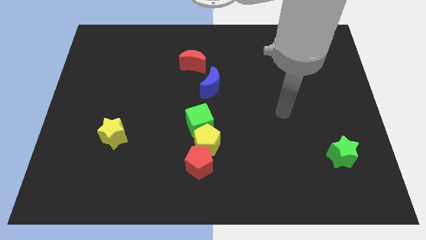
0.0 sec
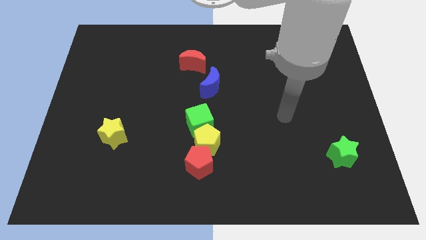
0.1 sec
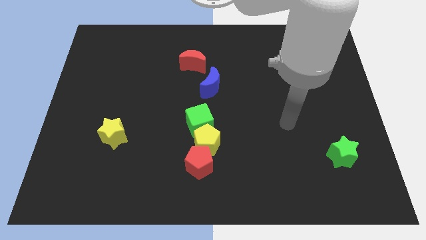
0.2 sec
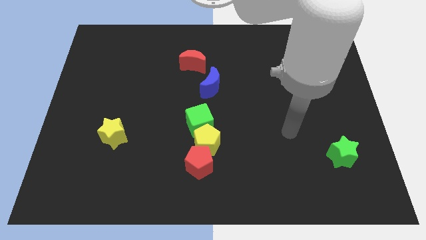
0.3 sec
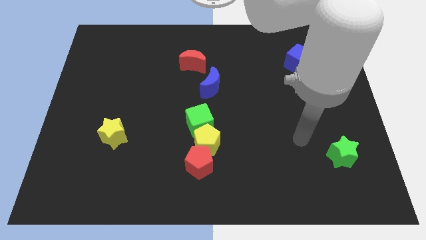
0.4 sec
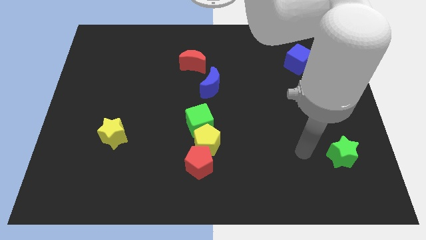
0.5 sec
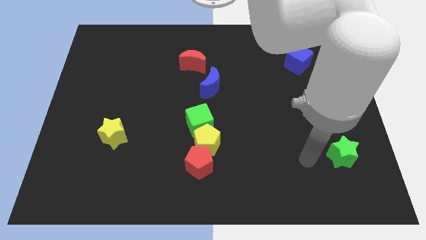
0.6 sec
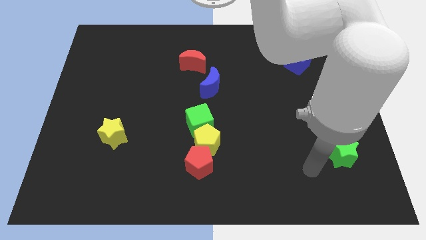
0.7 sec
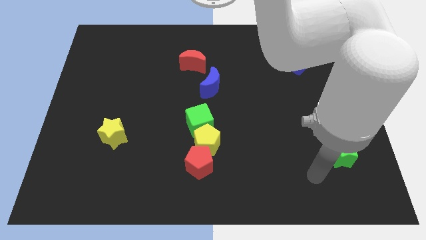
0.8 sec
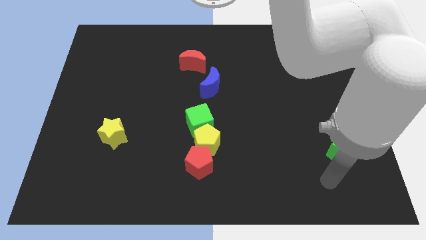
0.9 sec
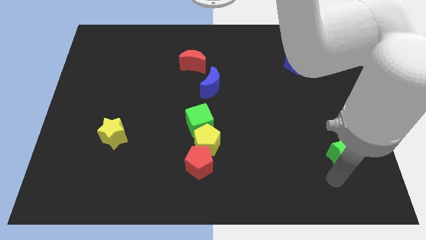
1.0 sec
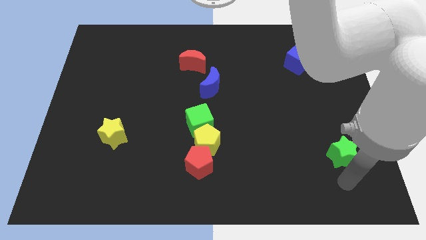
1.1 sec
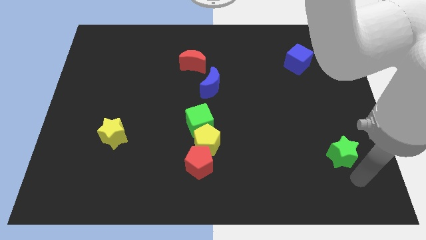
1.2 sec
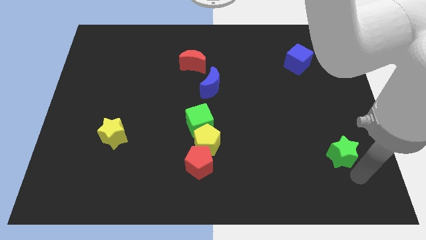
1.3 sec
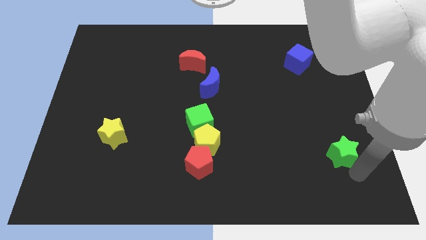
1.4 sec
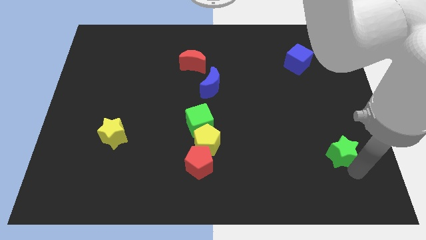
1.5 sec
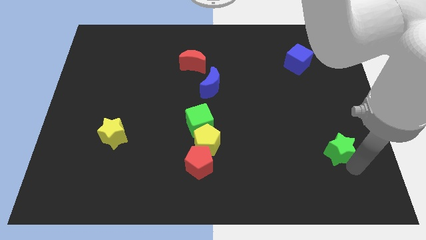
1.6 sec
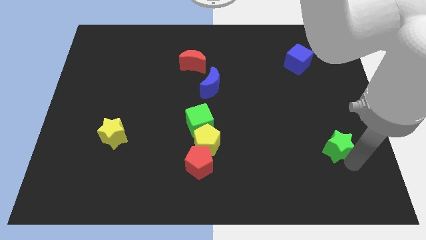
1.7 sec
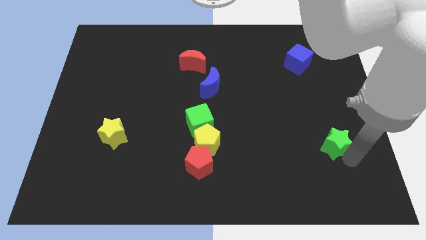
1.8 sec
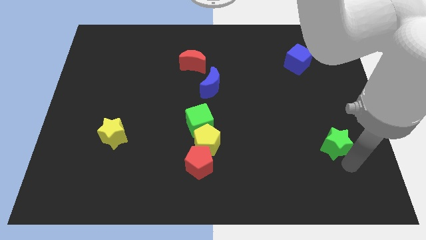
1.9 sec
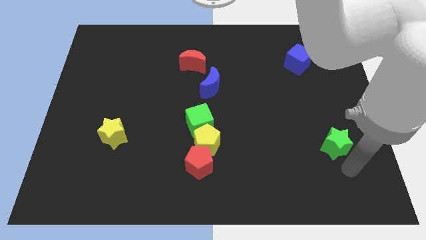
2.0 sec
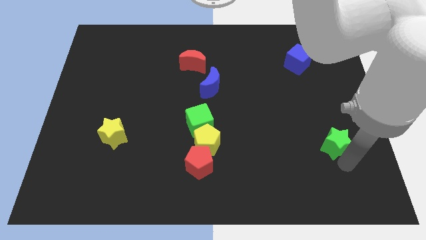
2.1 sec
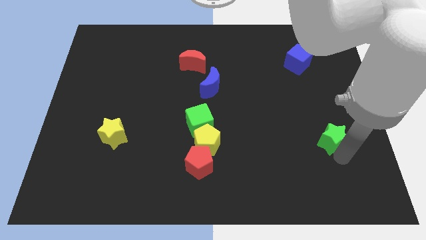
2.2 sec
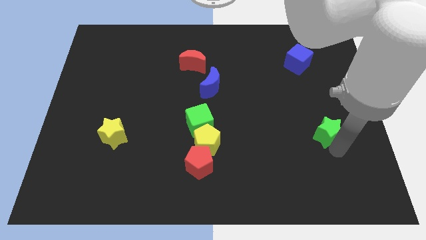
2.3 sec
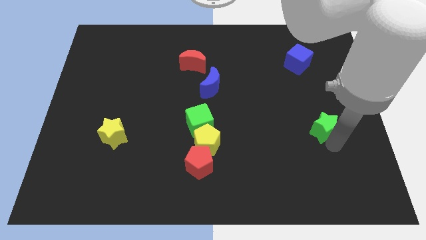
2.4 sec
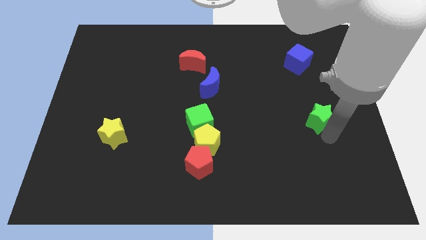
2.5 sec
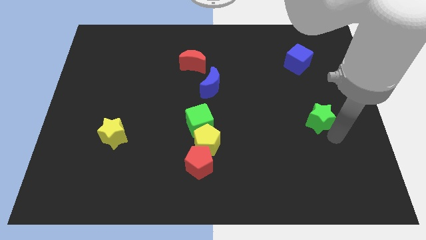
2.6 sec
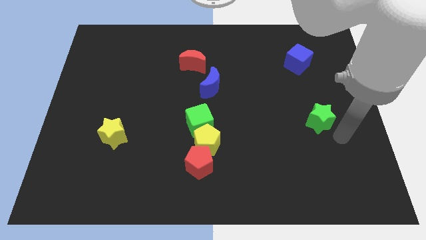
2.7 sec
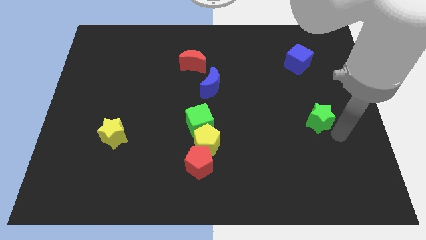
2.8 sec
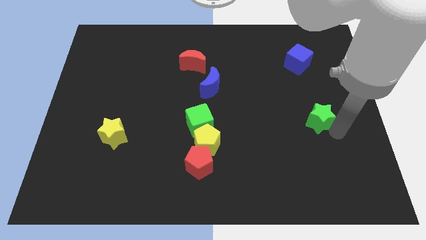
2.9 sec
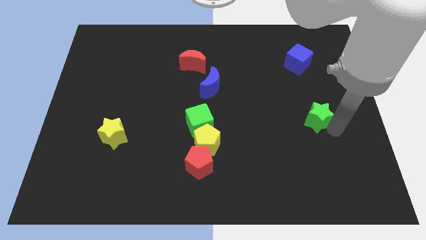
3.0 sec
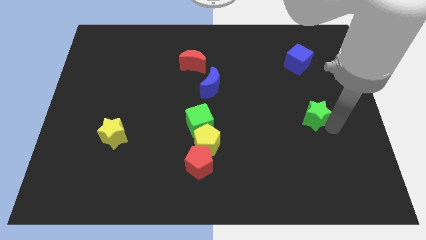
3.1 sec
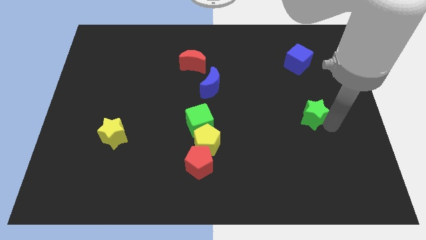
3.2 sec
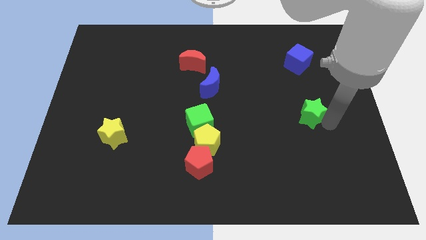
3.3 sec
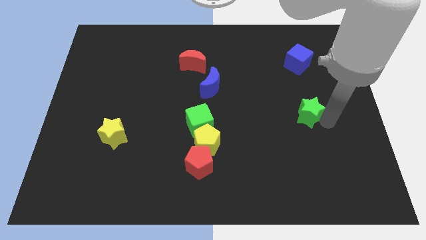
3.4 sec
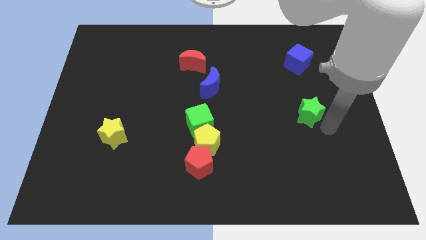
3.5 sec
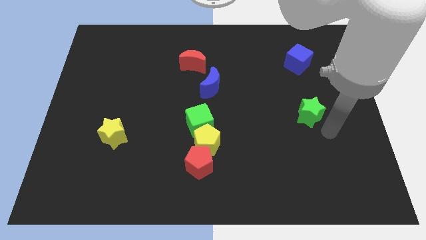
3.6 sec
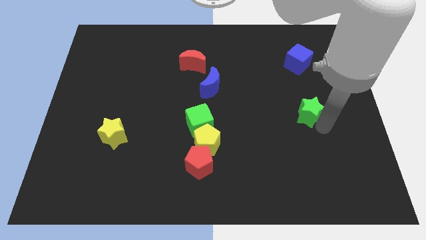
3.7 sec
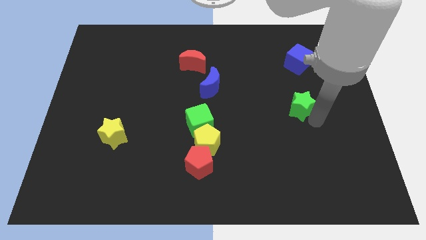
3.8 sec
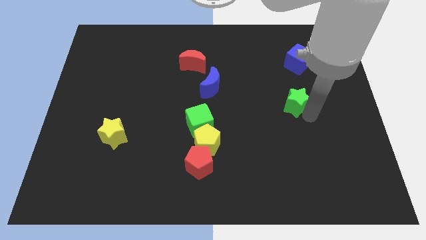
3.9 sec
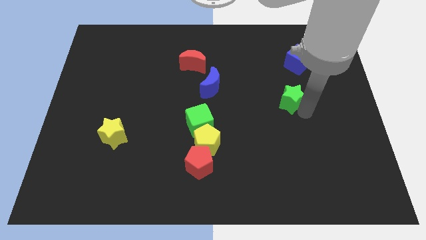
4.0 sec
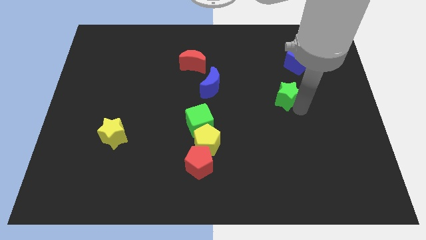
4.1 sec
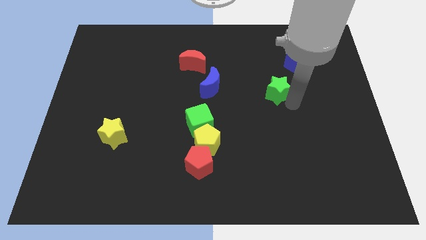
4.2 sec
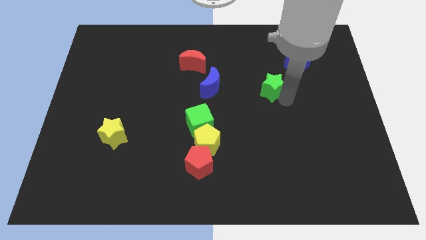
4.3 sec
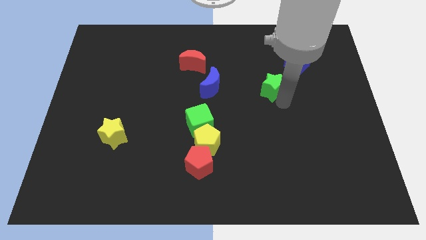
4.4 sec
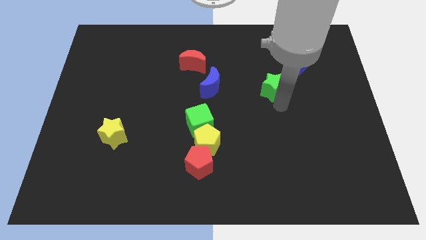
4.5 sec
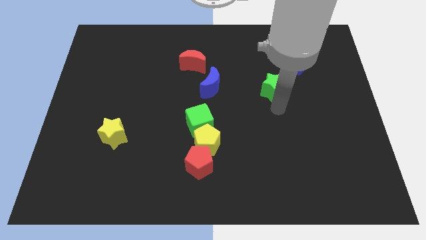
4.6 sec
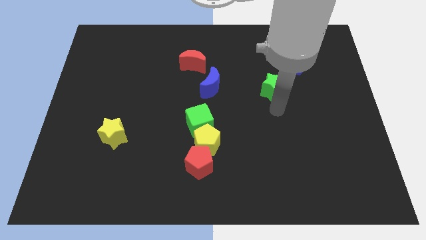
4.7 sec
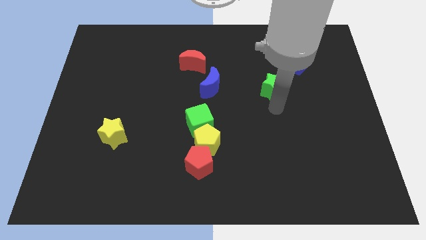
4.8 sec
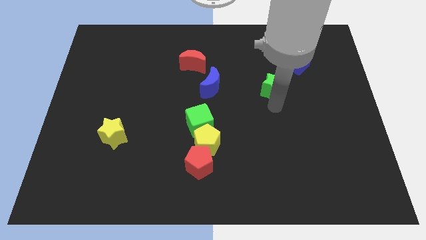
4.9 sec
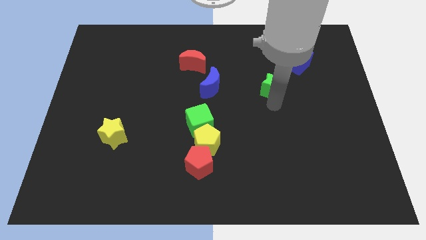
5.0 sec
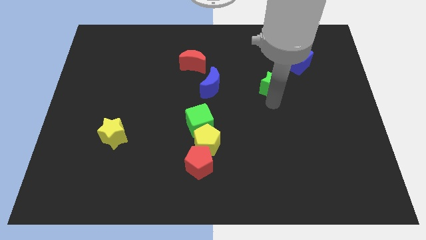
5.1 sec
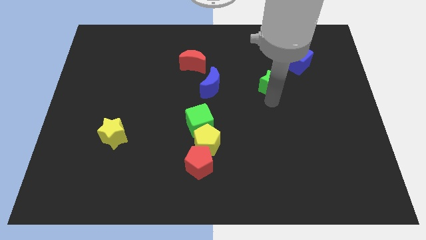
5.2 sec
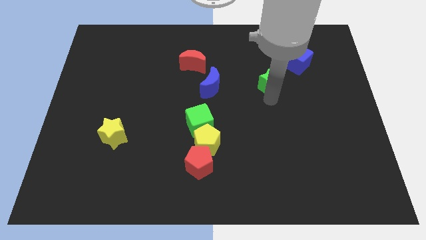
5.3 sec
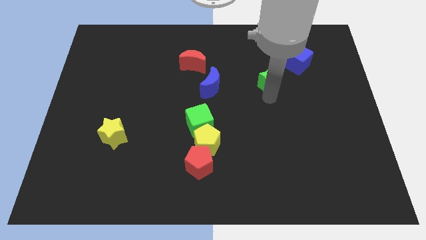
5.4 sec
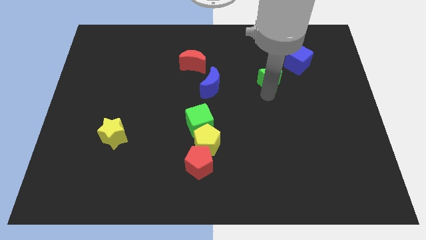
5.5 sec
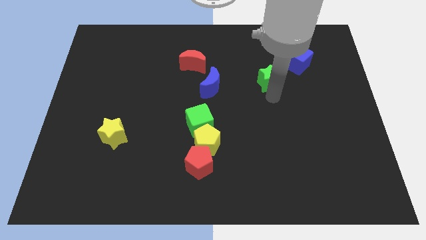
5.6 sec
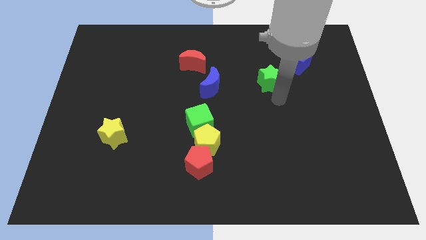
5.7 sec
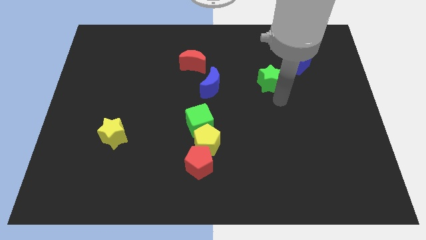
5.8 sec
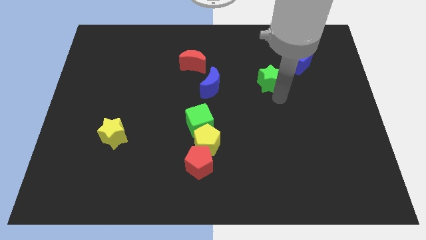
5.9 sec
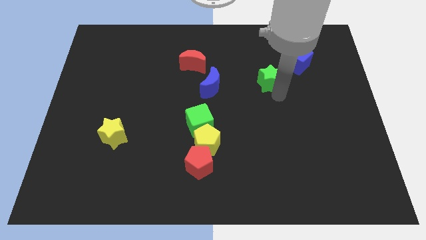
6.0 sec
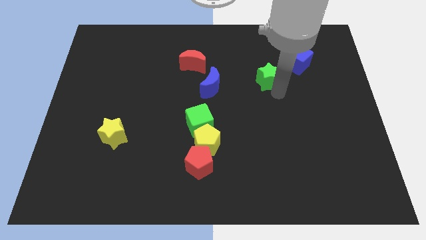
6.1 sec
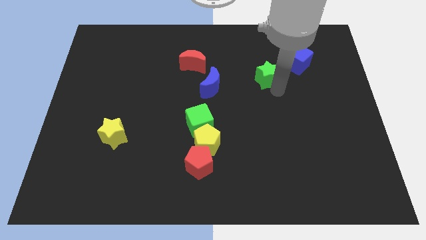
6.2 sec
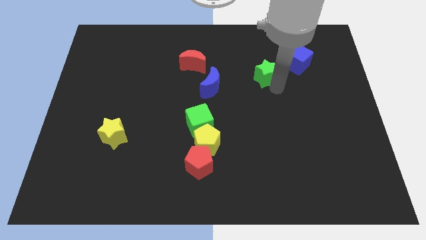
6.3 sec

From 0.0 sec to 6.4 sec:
put the green star to the left of the blue cube

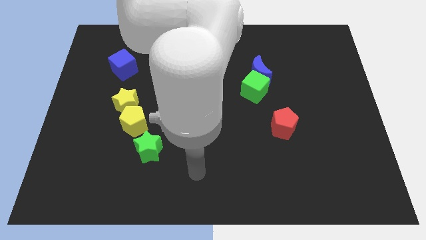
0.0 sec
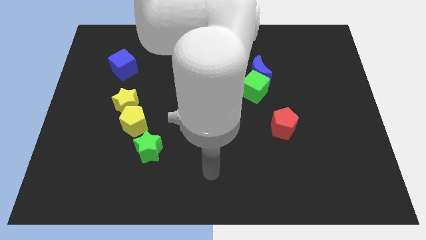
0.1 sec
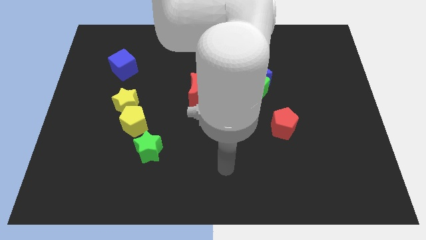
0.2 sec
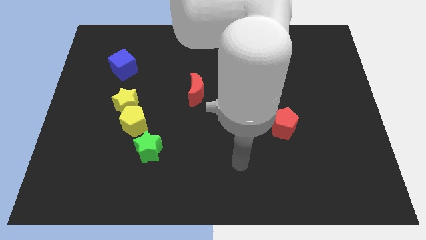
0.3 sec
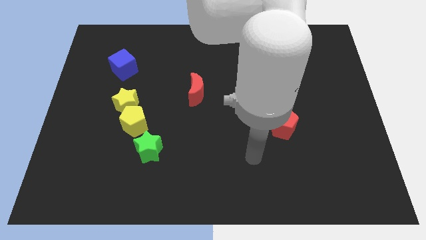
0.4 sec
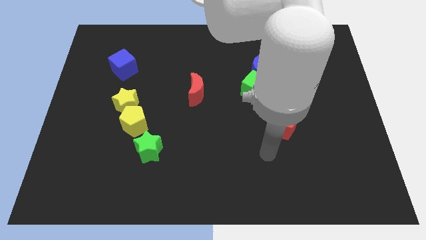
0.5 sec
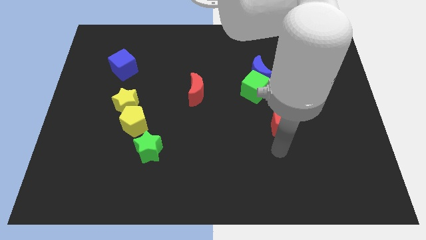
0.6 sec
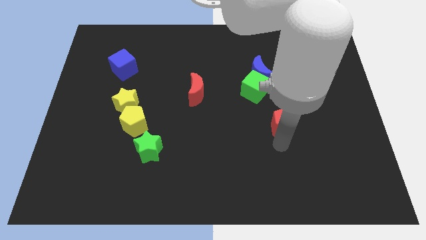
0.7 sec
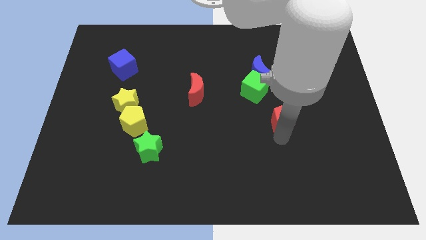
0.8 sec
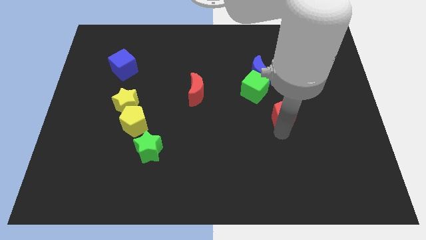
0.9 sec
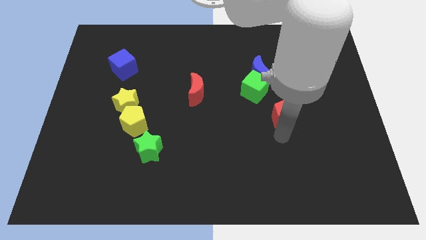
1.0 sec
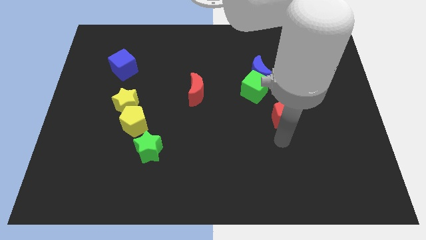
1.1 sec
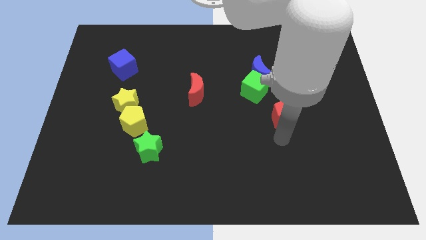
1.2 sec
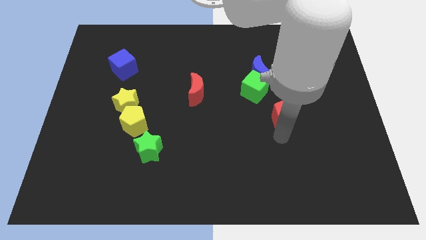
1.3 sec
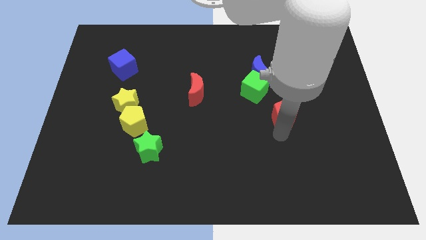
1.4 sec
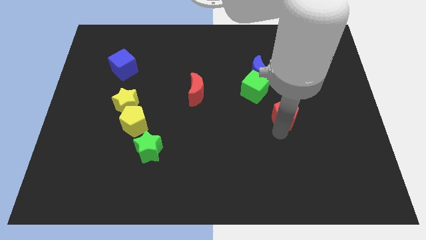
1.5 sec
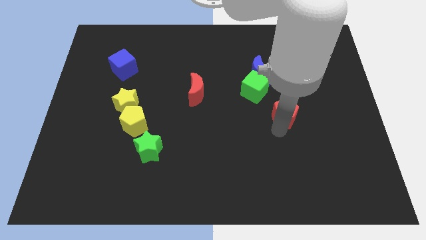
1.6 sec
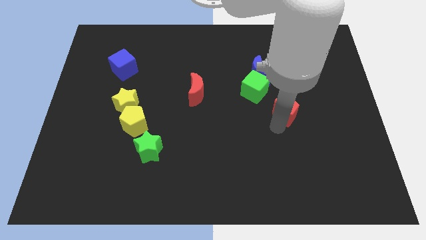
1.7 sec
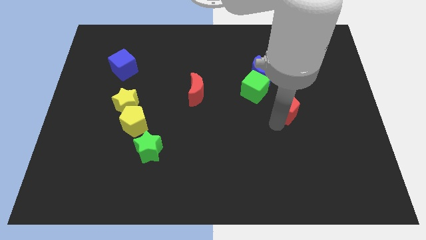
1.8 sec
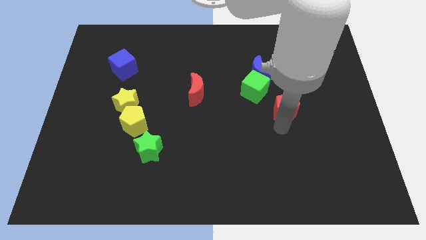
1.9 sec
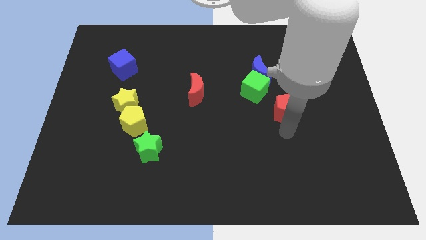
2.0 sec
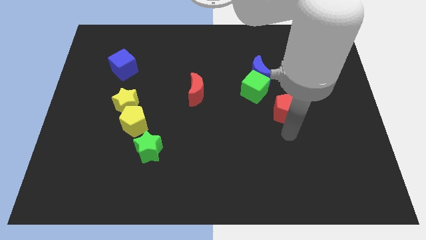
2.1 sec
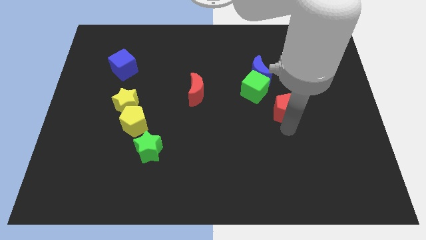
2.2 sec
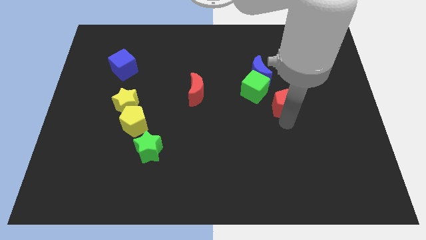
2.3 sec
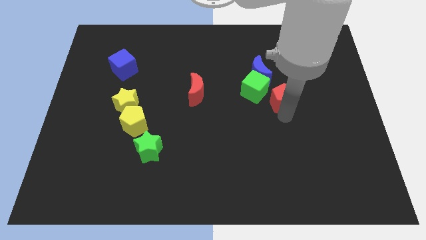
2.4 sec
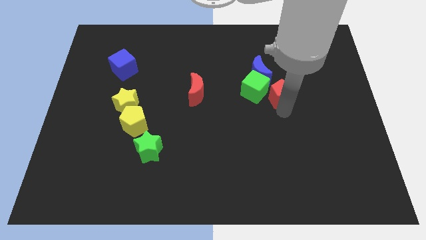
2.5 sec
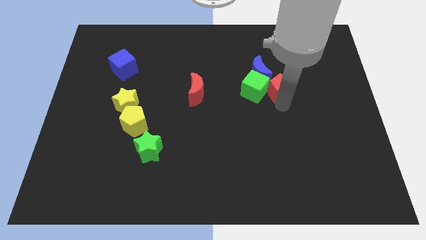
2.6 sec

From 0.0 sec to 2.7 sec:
slide the red pentagon diagonally up and to the right of the green cube
